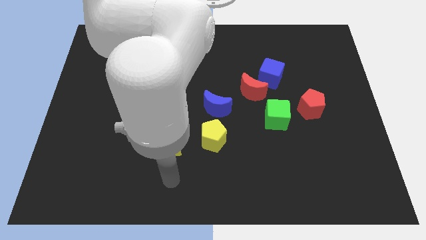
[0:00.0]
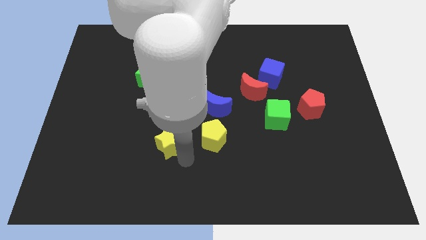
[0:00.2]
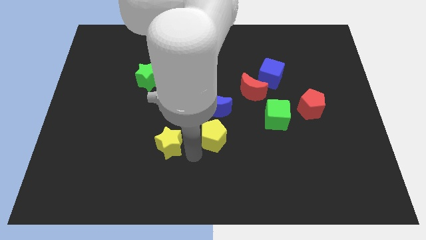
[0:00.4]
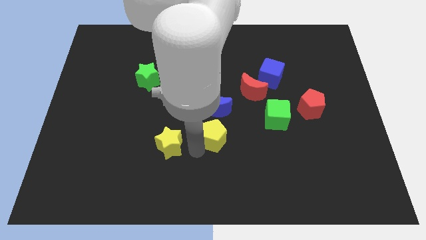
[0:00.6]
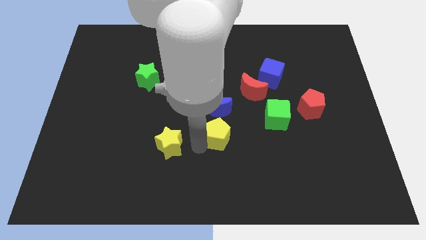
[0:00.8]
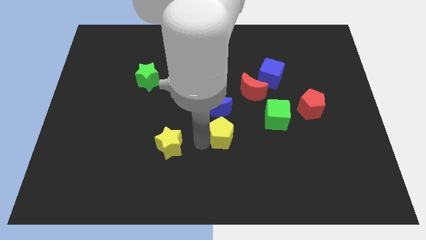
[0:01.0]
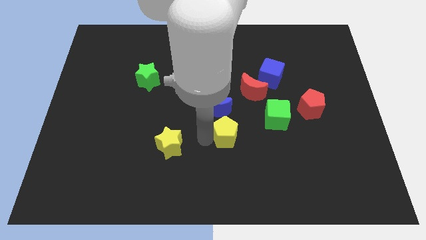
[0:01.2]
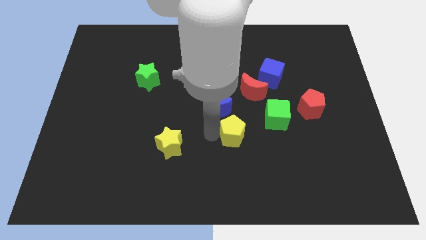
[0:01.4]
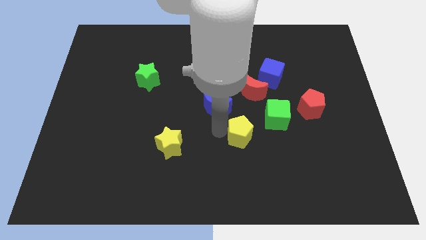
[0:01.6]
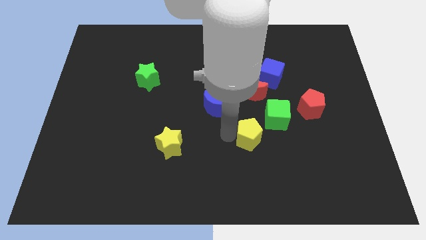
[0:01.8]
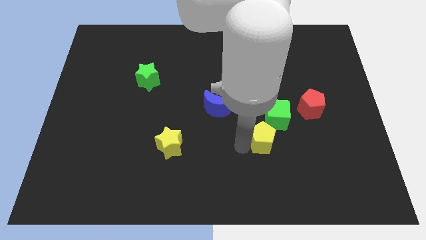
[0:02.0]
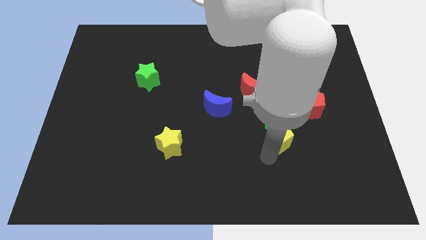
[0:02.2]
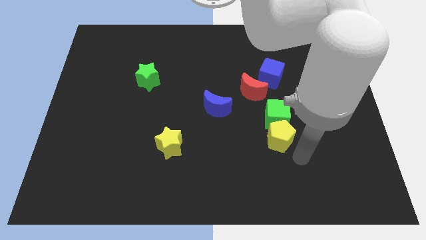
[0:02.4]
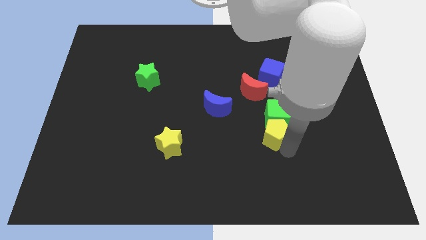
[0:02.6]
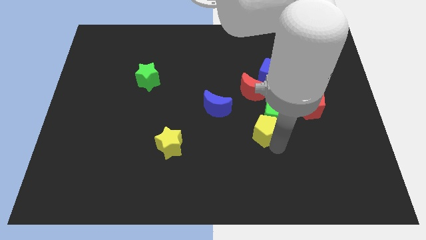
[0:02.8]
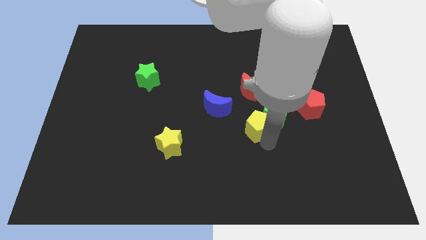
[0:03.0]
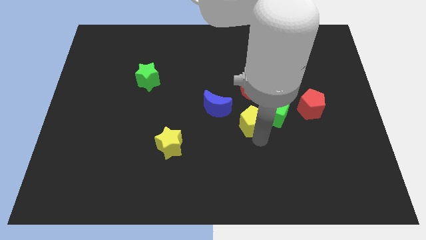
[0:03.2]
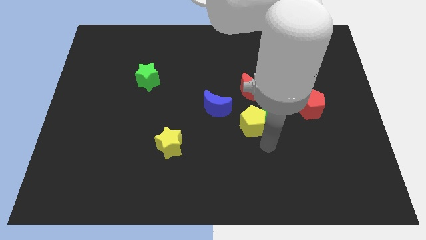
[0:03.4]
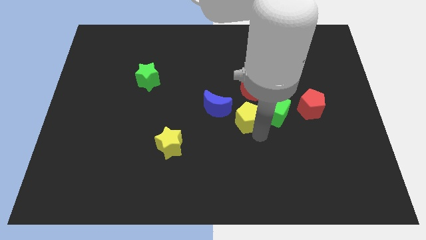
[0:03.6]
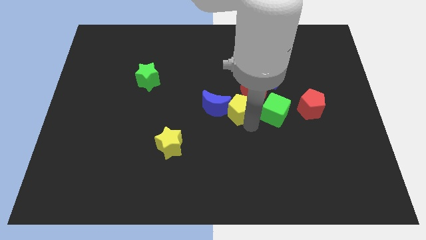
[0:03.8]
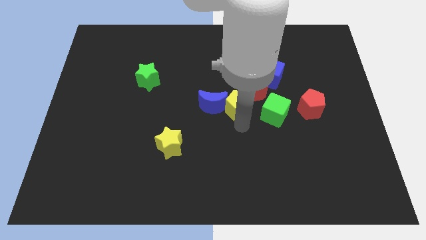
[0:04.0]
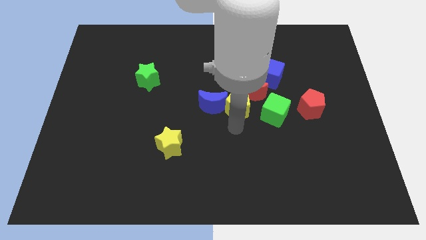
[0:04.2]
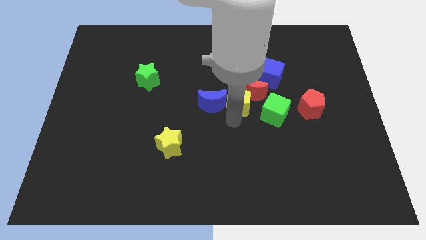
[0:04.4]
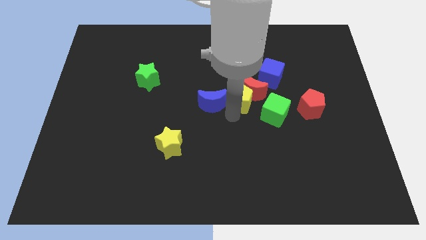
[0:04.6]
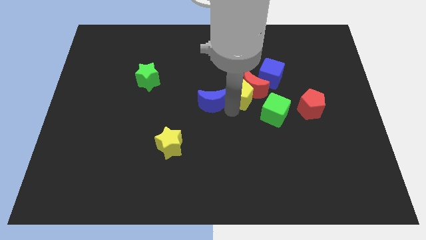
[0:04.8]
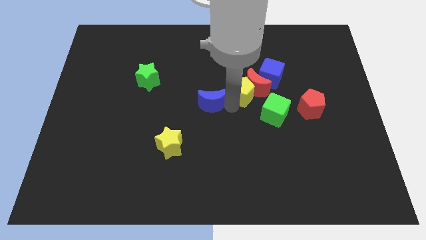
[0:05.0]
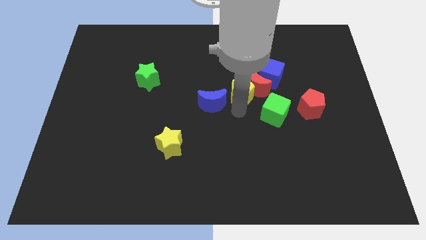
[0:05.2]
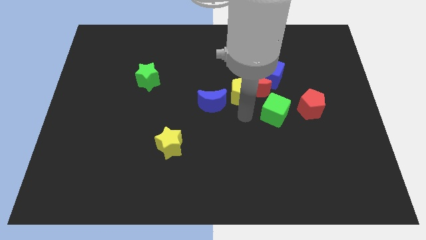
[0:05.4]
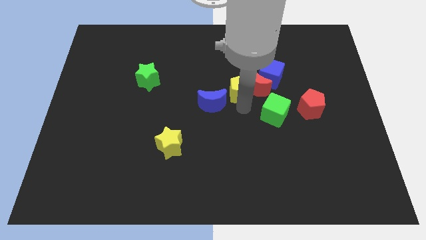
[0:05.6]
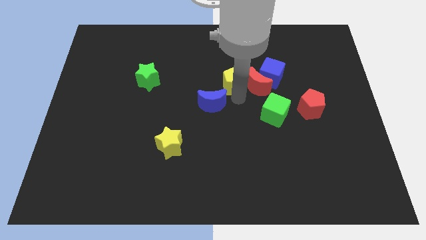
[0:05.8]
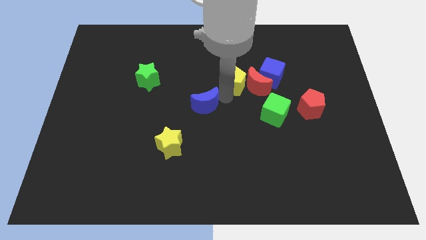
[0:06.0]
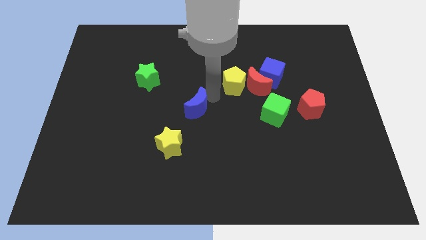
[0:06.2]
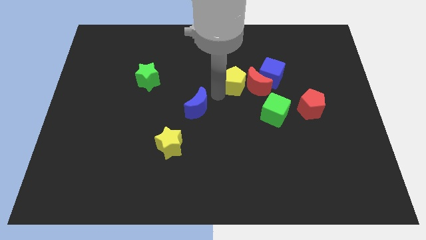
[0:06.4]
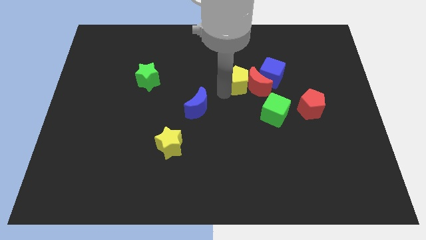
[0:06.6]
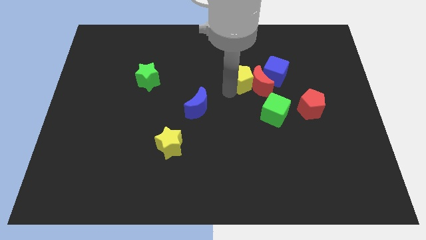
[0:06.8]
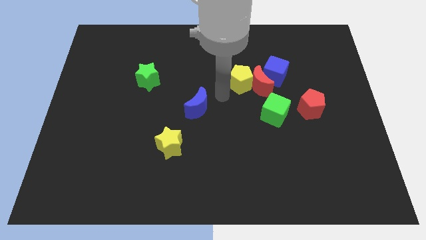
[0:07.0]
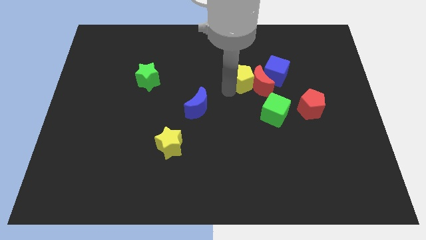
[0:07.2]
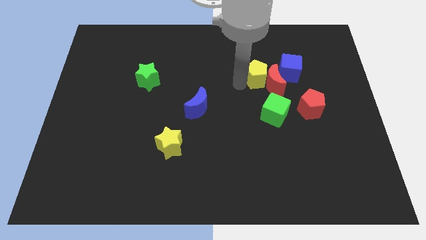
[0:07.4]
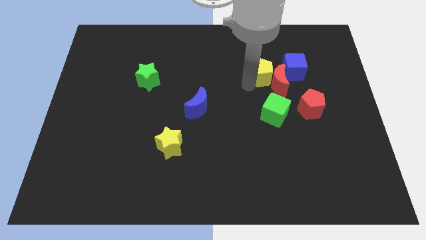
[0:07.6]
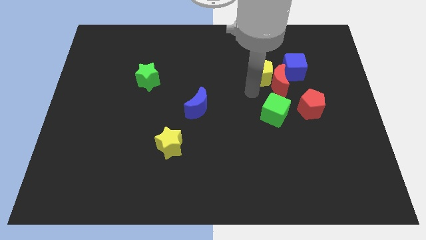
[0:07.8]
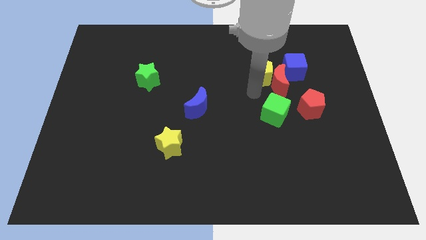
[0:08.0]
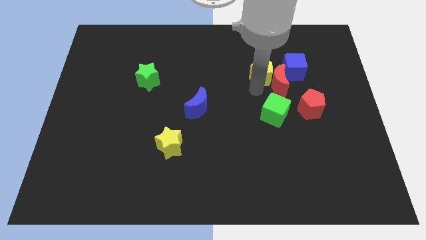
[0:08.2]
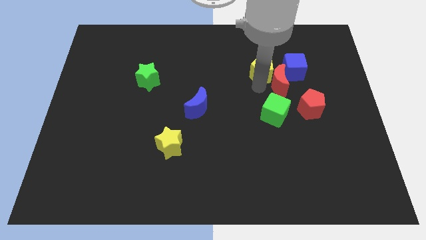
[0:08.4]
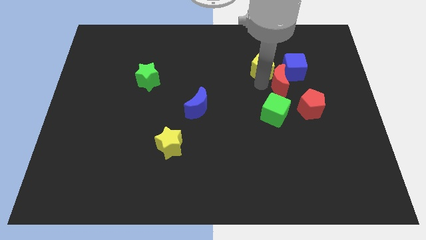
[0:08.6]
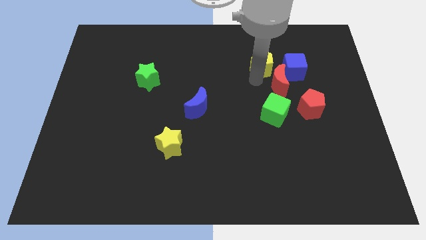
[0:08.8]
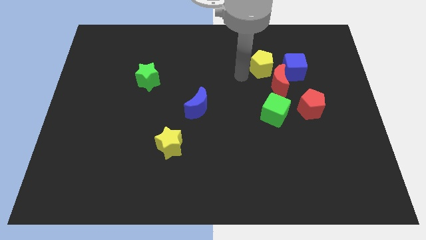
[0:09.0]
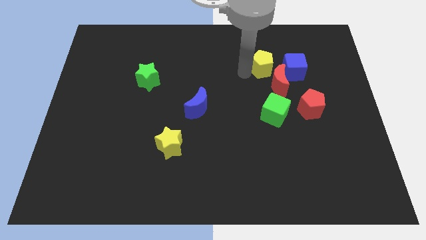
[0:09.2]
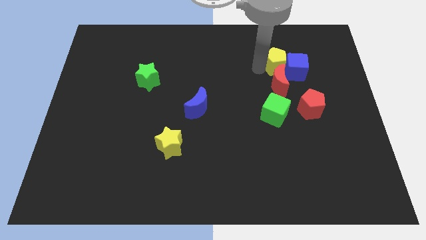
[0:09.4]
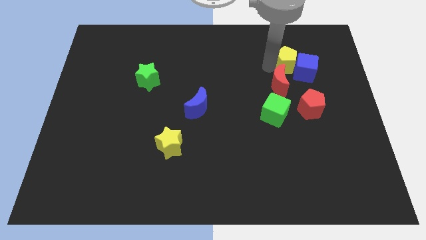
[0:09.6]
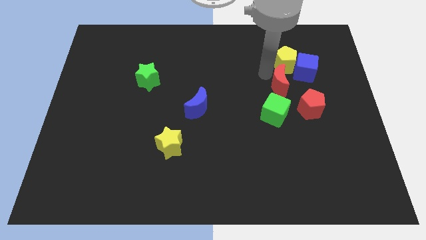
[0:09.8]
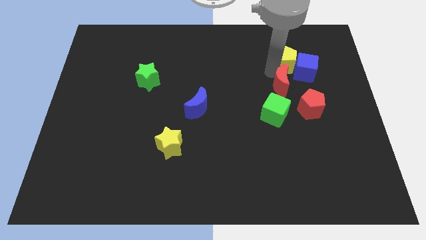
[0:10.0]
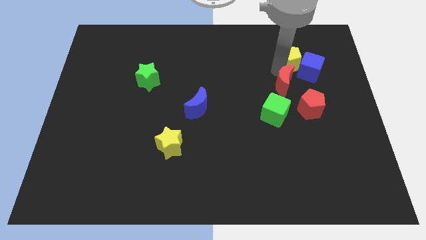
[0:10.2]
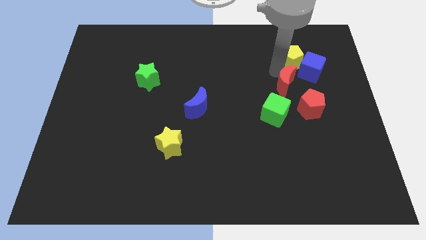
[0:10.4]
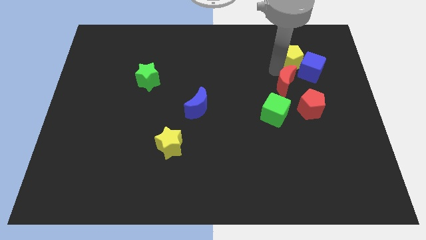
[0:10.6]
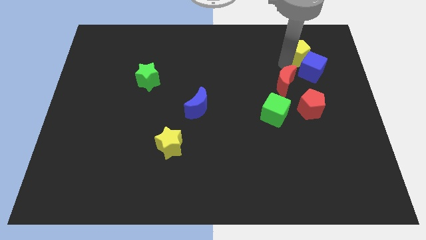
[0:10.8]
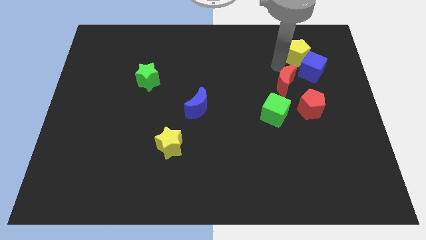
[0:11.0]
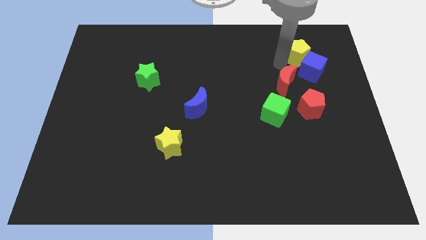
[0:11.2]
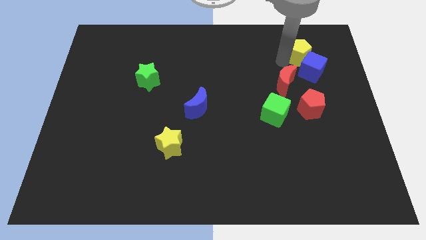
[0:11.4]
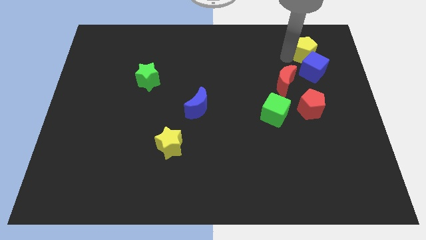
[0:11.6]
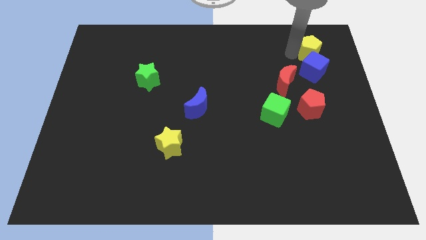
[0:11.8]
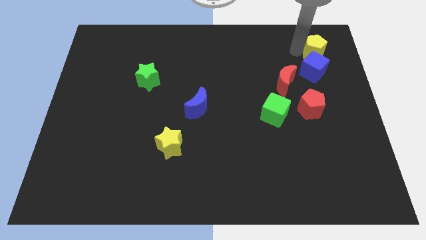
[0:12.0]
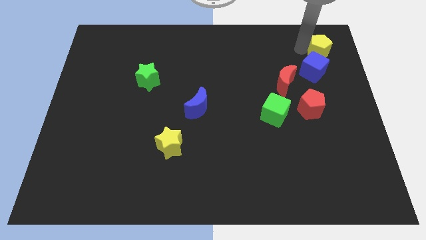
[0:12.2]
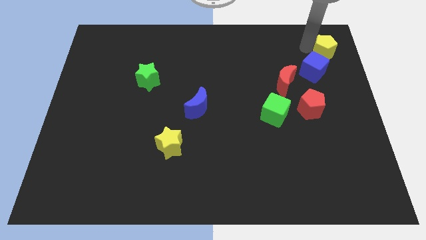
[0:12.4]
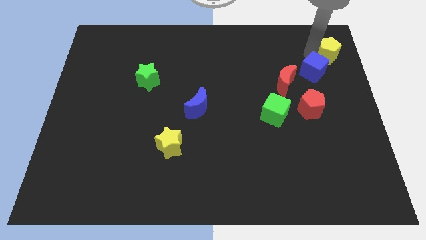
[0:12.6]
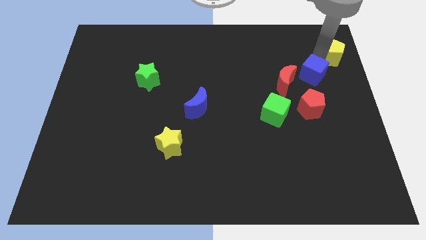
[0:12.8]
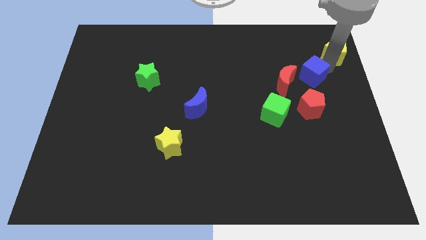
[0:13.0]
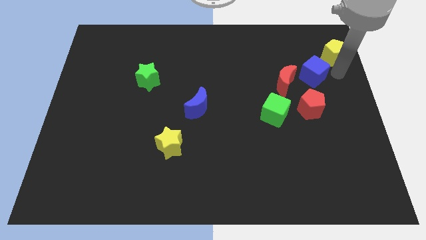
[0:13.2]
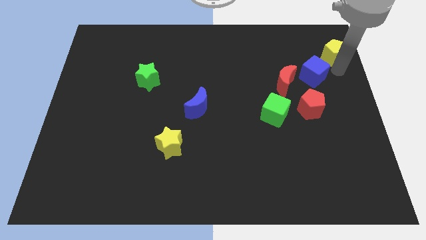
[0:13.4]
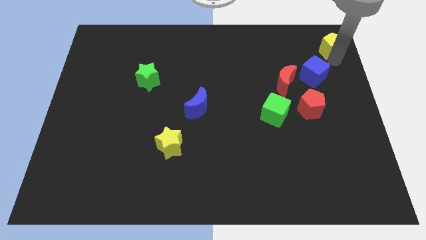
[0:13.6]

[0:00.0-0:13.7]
push the yellow pentagon to the top right of the board
